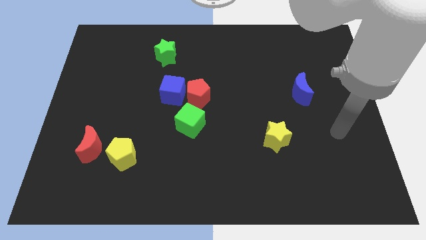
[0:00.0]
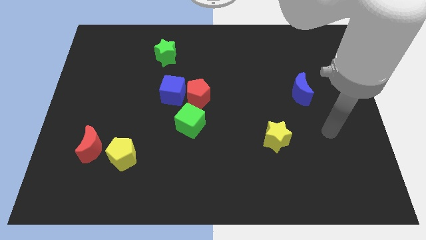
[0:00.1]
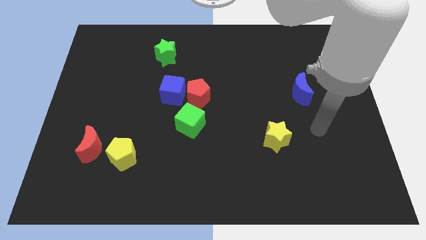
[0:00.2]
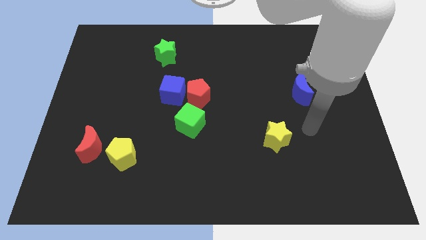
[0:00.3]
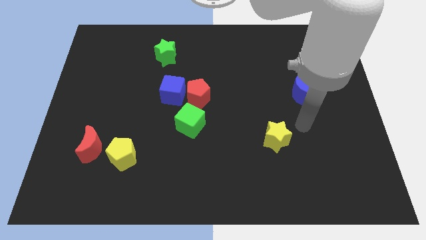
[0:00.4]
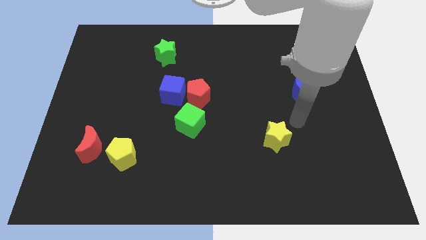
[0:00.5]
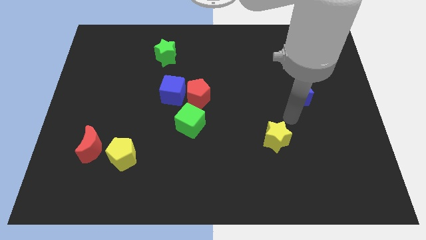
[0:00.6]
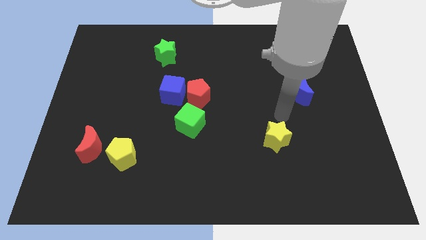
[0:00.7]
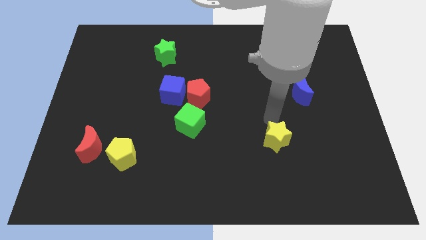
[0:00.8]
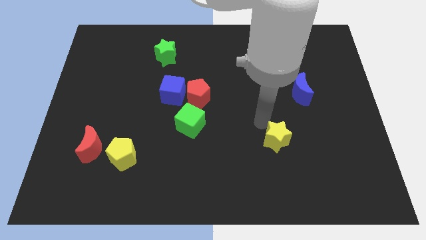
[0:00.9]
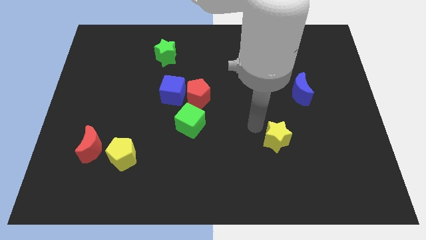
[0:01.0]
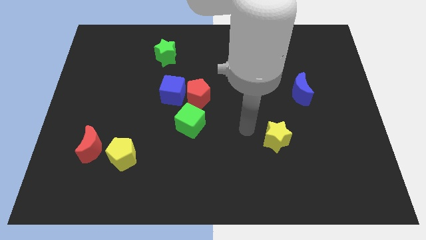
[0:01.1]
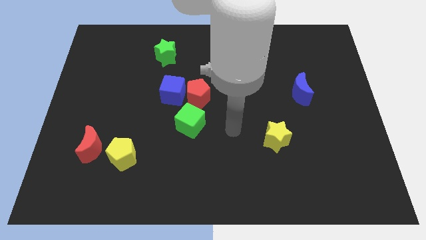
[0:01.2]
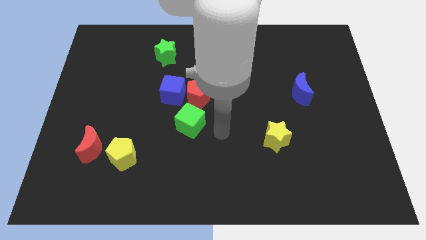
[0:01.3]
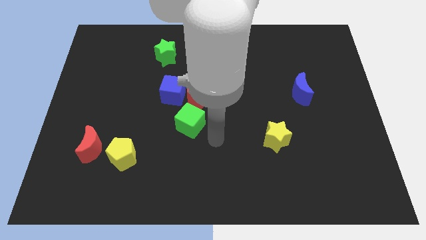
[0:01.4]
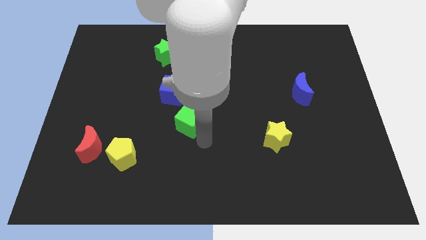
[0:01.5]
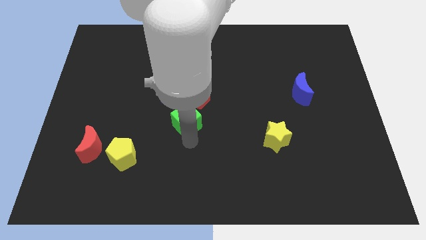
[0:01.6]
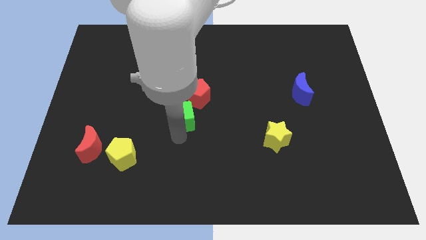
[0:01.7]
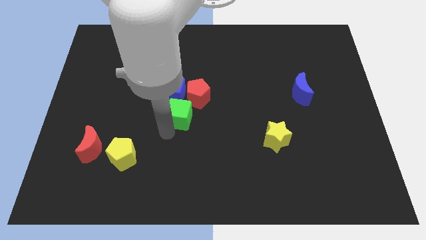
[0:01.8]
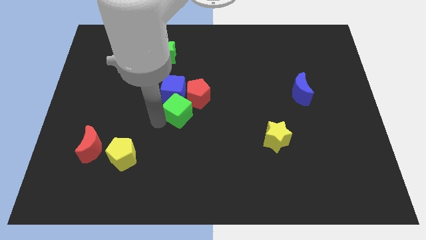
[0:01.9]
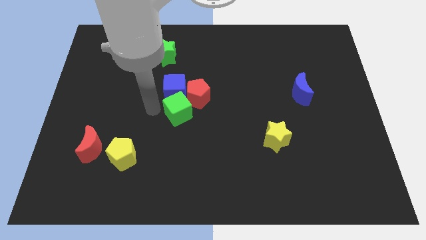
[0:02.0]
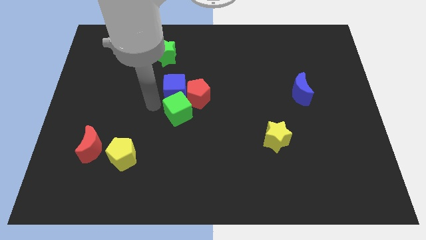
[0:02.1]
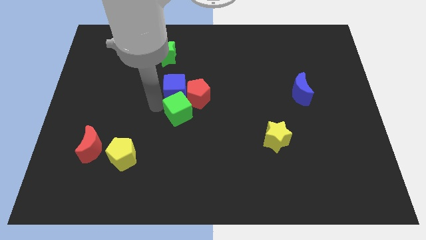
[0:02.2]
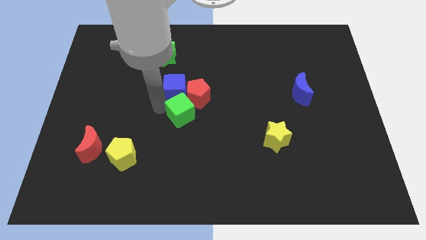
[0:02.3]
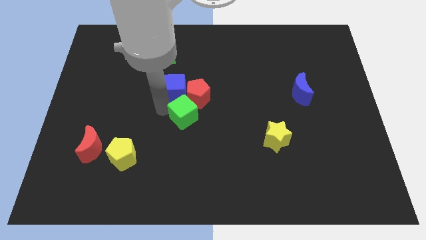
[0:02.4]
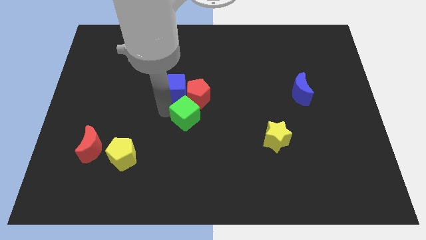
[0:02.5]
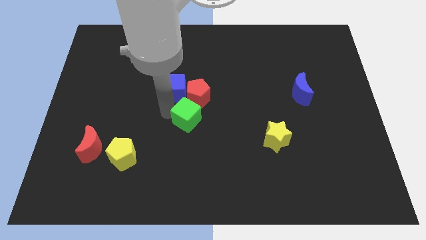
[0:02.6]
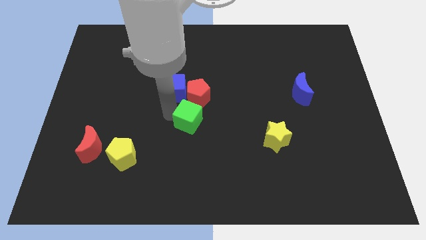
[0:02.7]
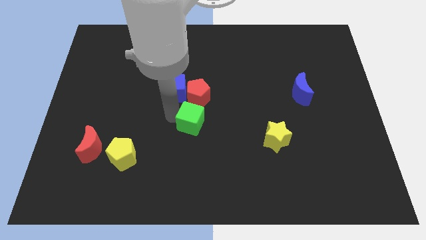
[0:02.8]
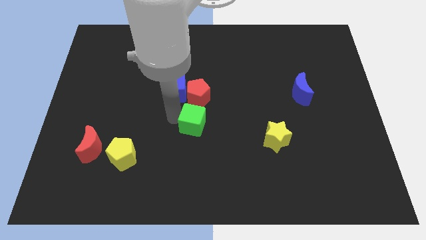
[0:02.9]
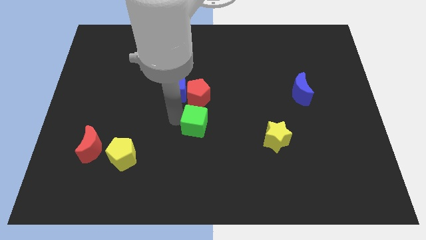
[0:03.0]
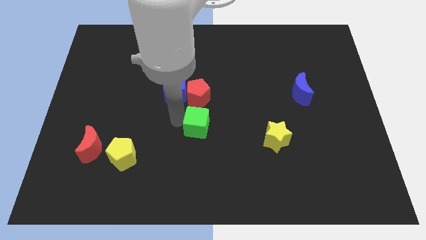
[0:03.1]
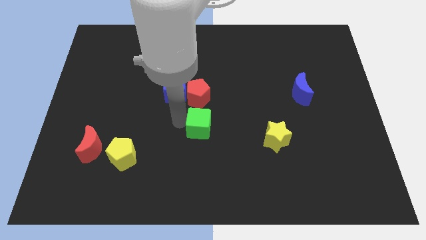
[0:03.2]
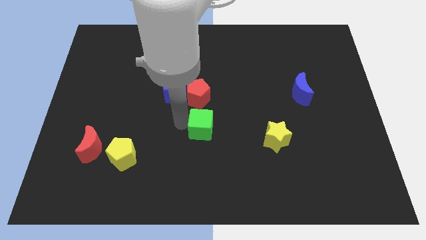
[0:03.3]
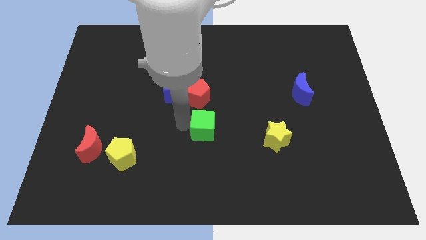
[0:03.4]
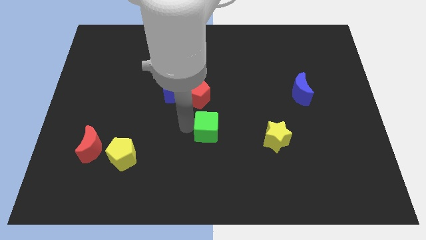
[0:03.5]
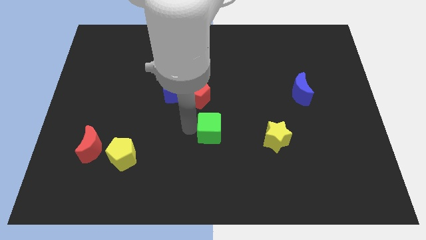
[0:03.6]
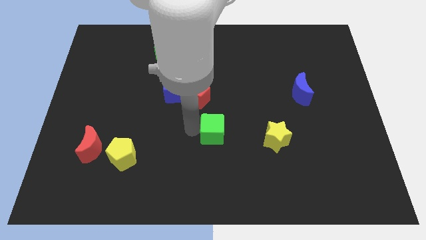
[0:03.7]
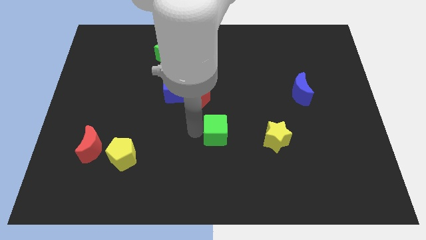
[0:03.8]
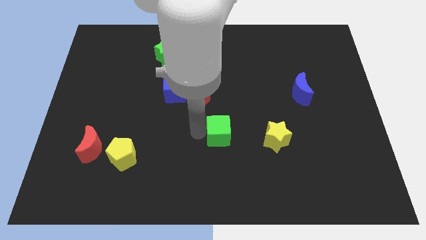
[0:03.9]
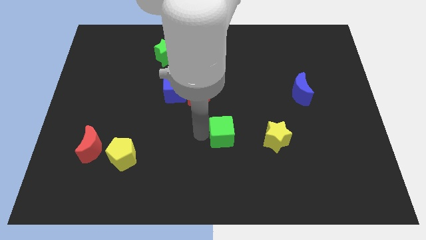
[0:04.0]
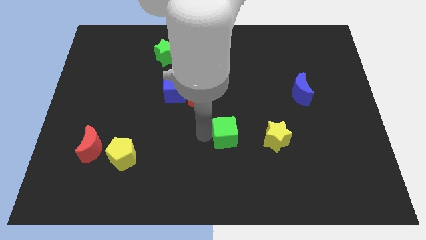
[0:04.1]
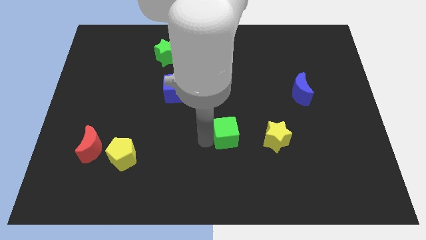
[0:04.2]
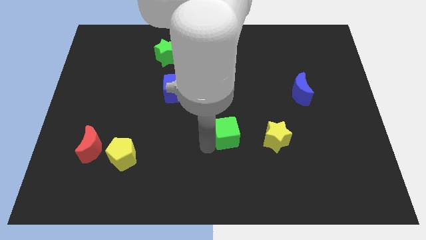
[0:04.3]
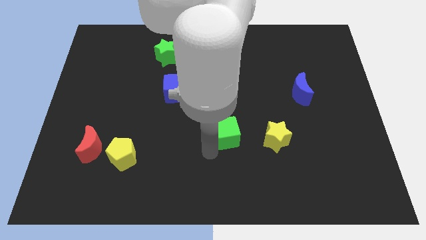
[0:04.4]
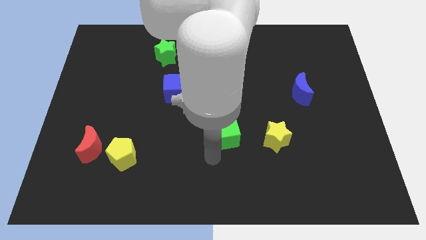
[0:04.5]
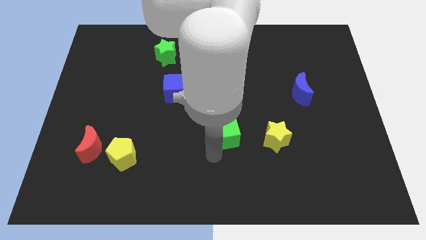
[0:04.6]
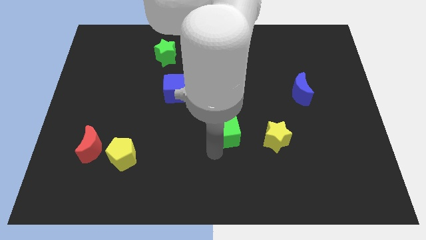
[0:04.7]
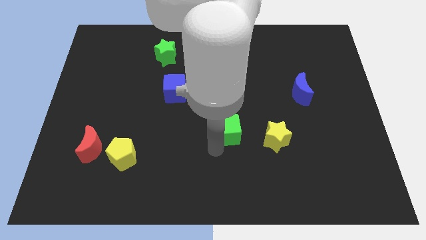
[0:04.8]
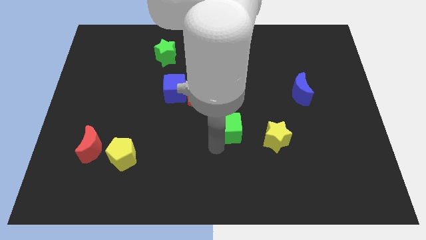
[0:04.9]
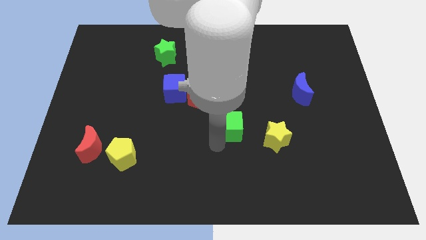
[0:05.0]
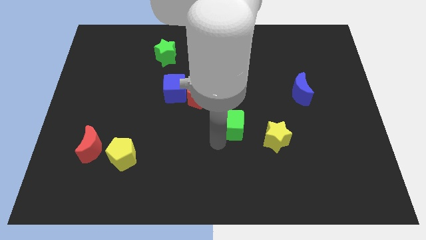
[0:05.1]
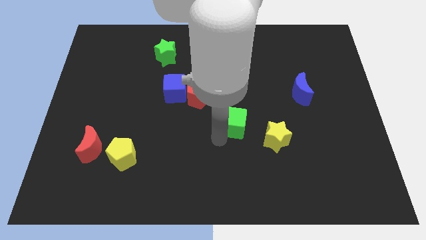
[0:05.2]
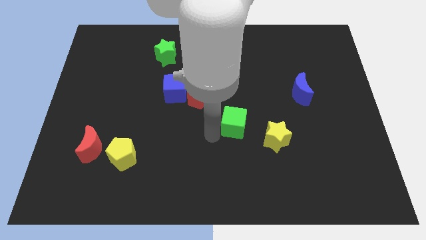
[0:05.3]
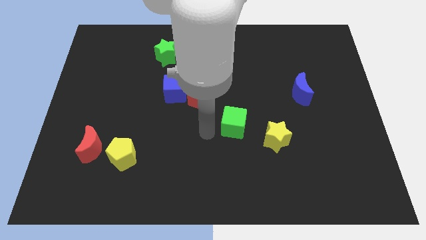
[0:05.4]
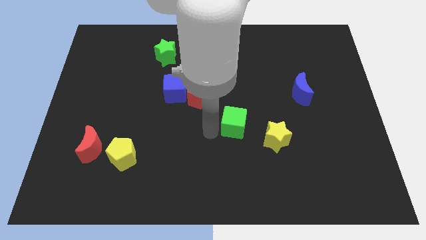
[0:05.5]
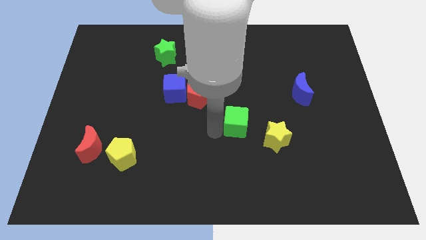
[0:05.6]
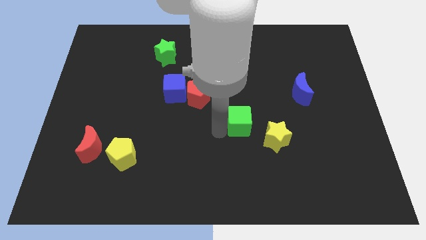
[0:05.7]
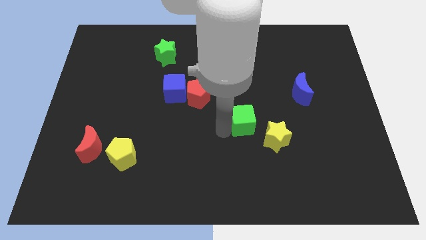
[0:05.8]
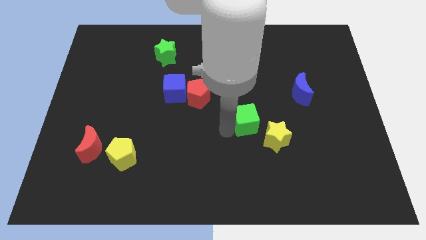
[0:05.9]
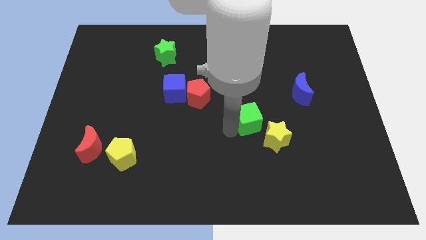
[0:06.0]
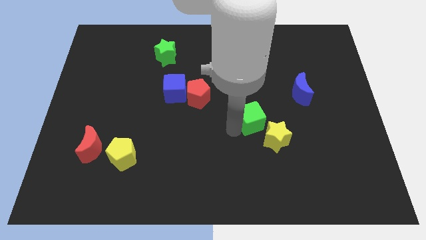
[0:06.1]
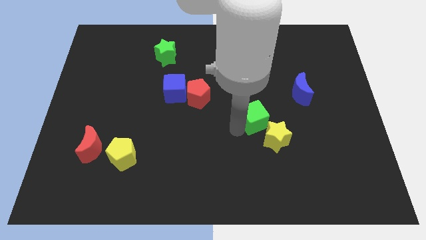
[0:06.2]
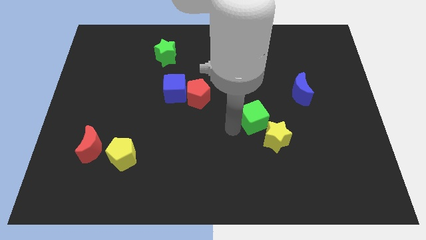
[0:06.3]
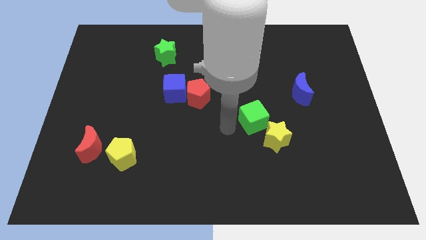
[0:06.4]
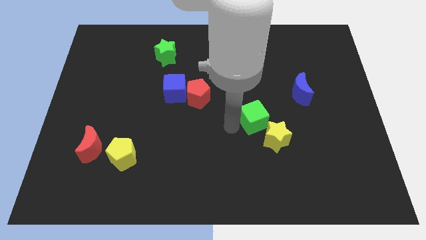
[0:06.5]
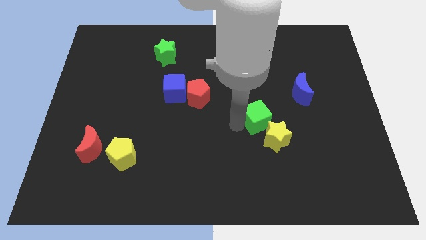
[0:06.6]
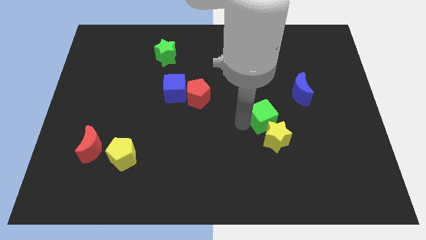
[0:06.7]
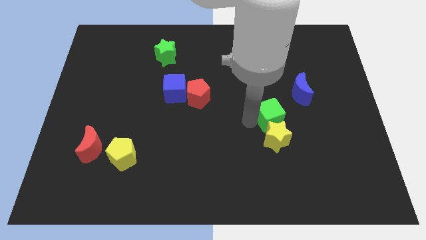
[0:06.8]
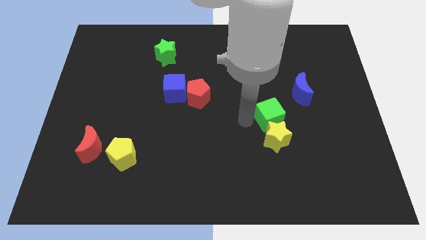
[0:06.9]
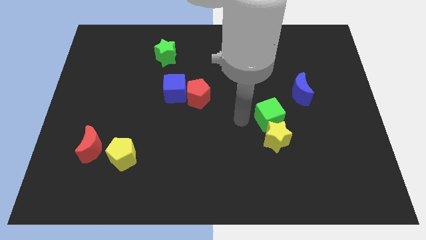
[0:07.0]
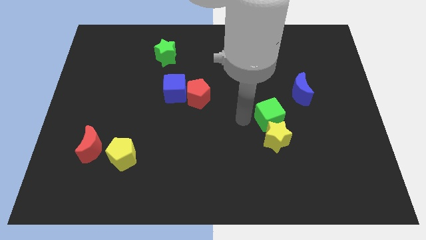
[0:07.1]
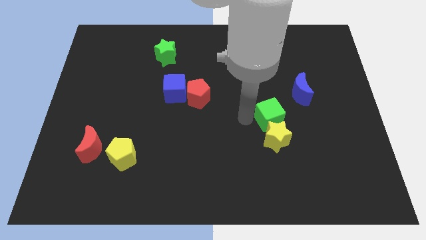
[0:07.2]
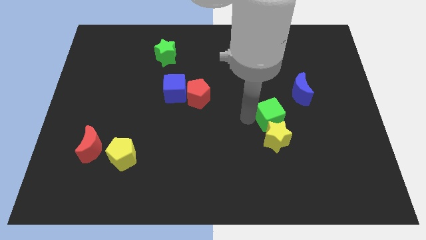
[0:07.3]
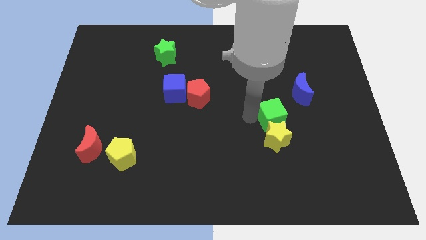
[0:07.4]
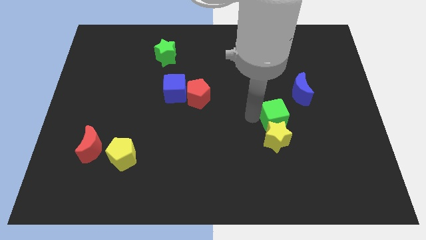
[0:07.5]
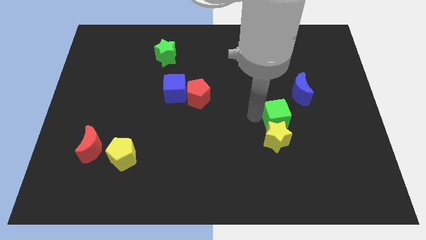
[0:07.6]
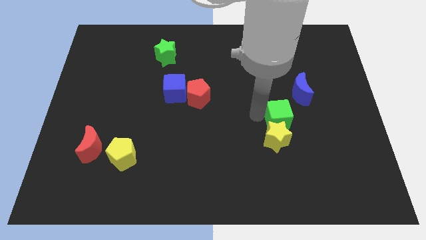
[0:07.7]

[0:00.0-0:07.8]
slide the green cube to the right

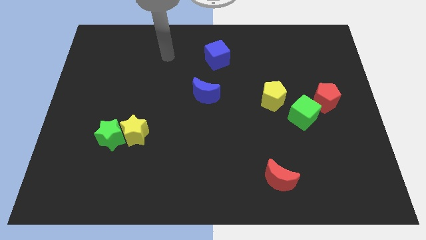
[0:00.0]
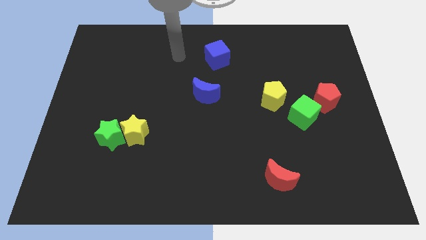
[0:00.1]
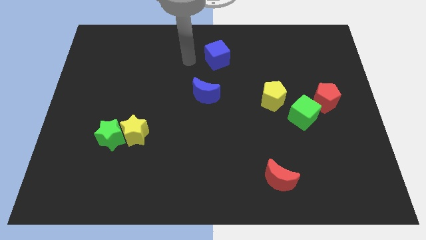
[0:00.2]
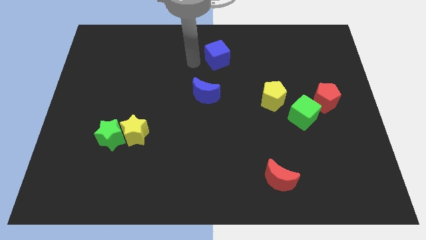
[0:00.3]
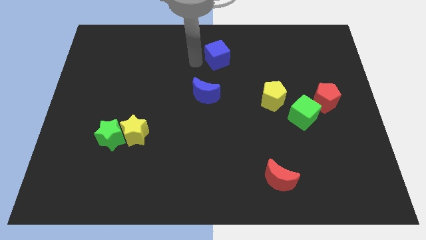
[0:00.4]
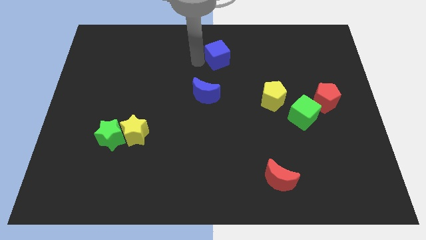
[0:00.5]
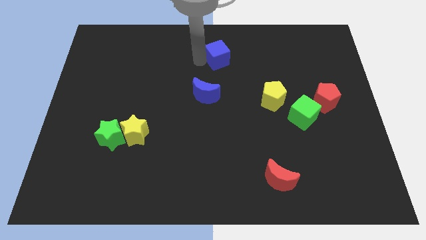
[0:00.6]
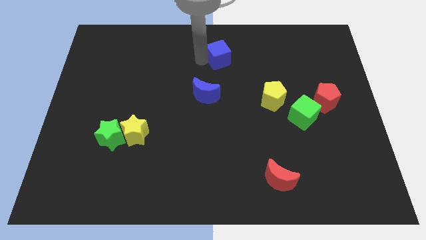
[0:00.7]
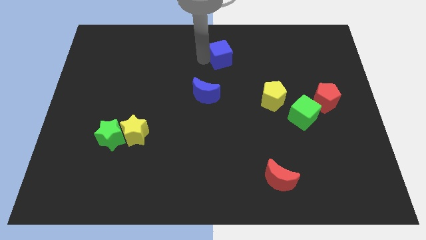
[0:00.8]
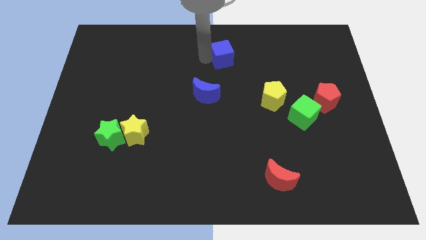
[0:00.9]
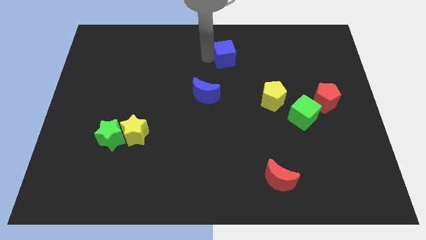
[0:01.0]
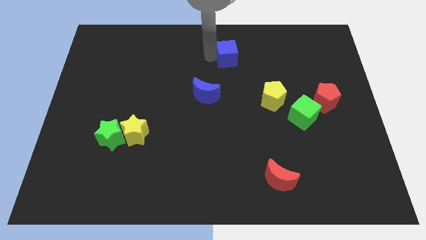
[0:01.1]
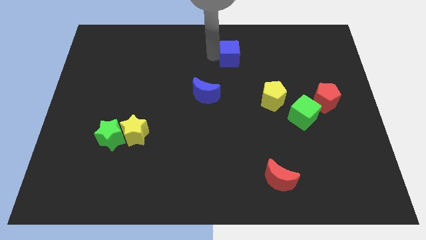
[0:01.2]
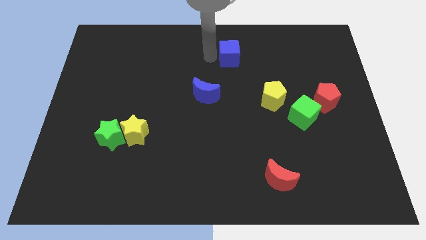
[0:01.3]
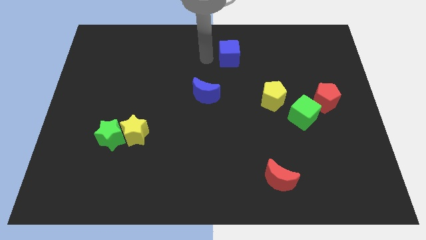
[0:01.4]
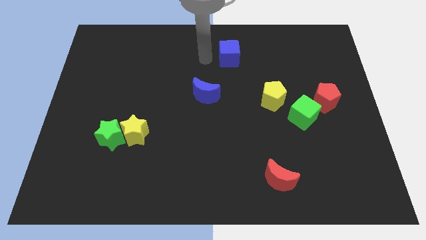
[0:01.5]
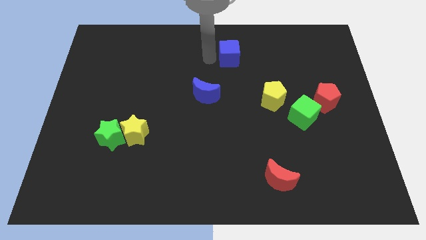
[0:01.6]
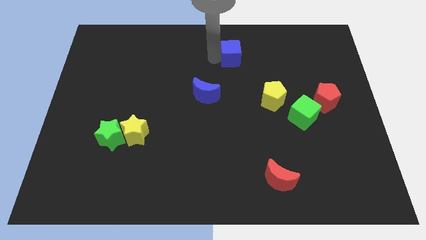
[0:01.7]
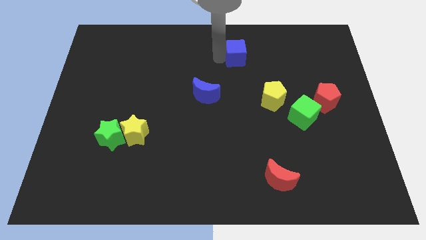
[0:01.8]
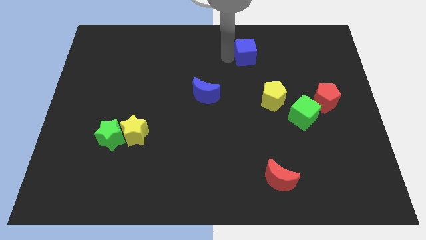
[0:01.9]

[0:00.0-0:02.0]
slide the blue cube slightly right
